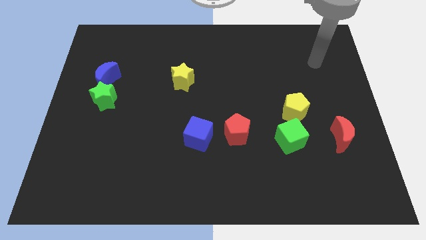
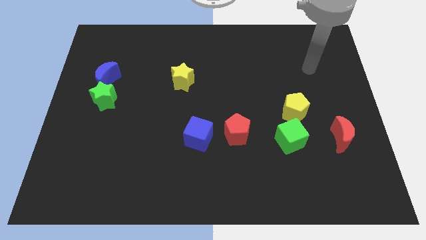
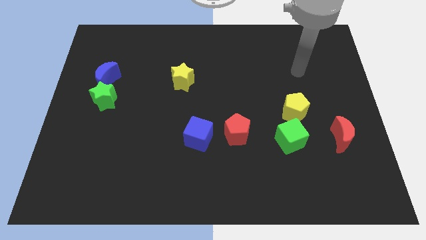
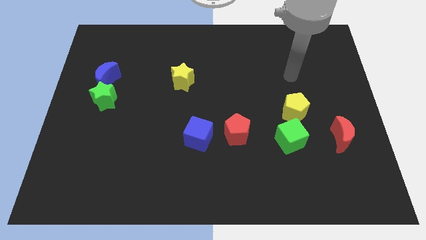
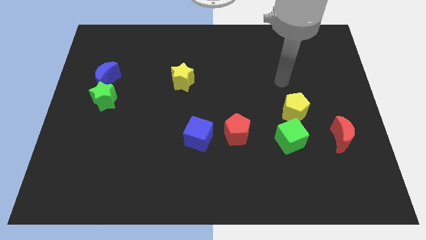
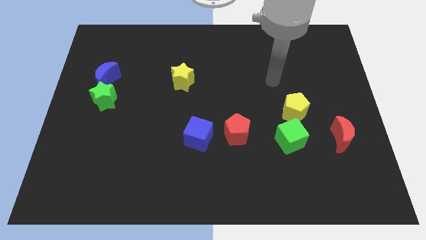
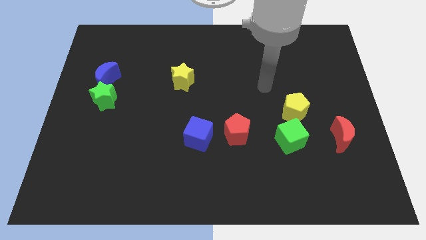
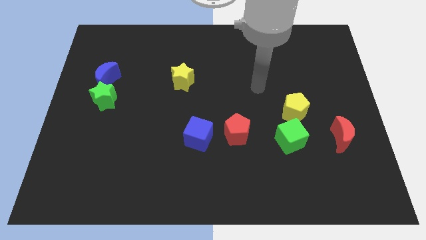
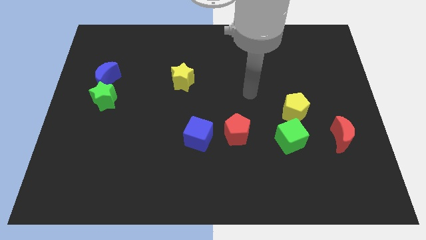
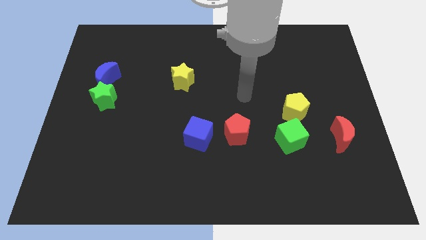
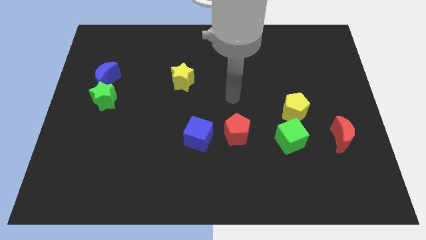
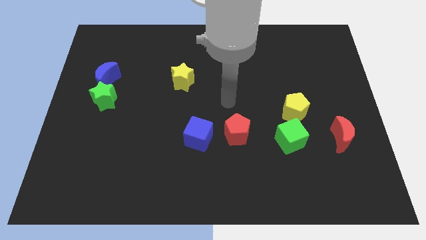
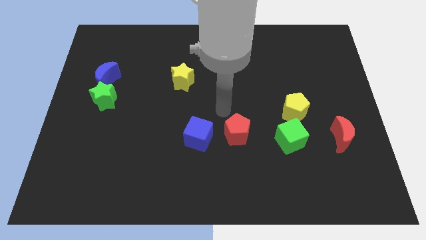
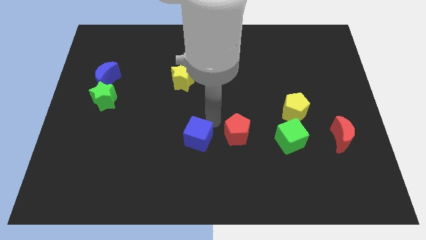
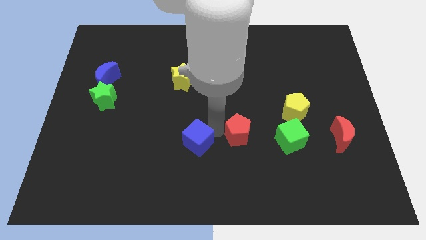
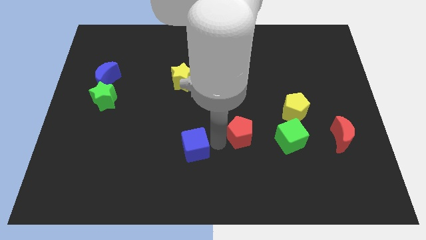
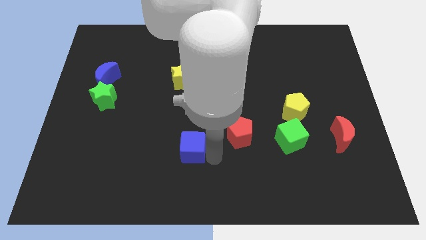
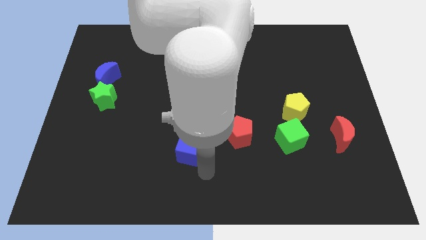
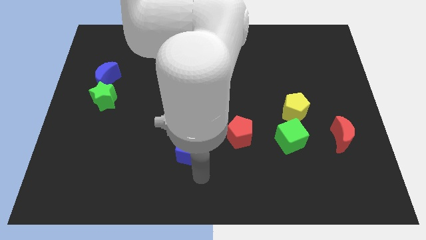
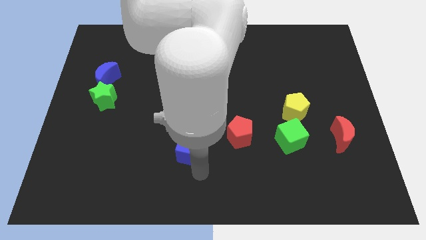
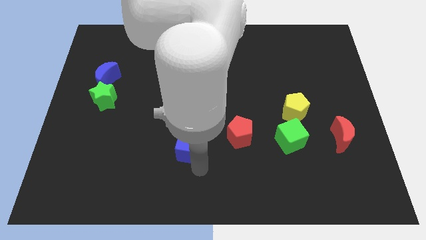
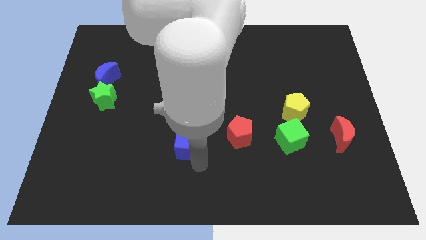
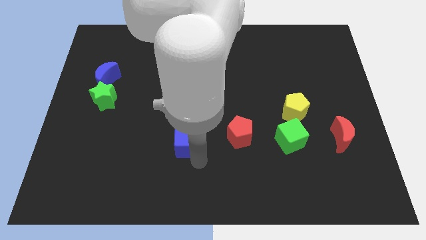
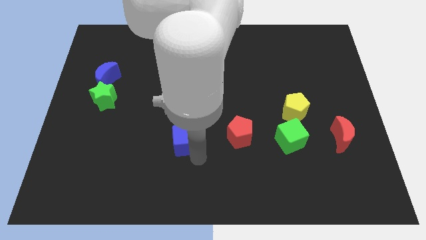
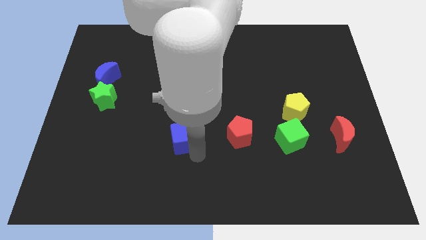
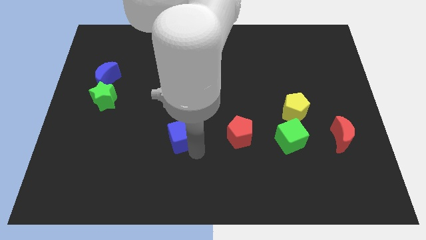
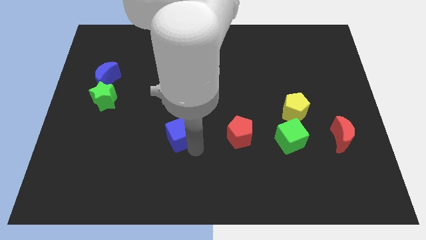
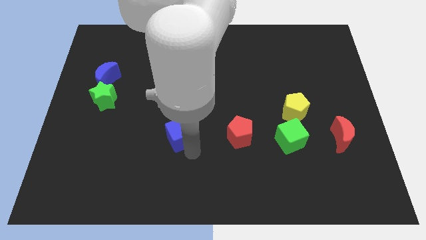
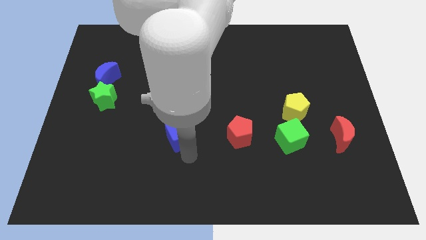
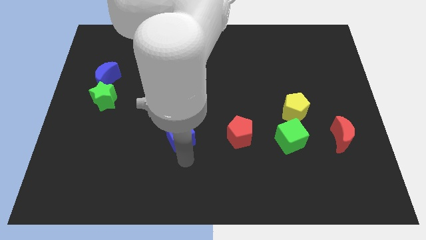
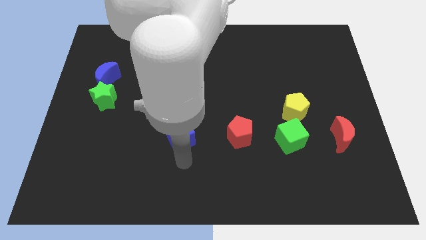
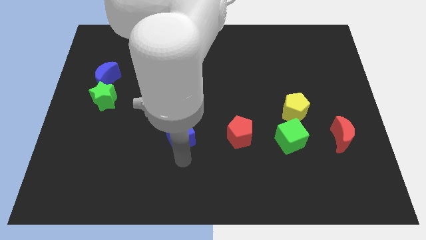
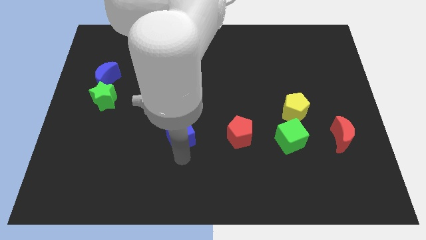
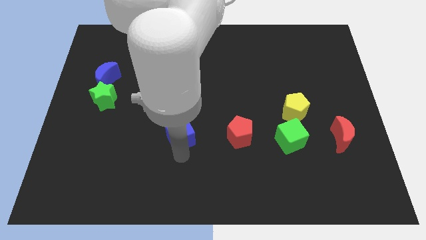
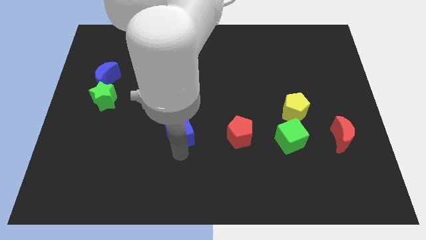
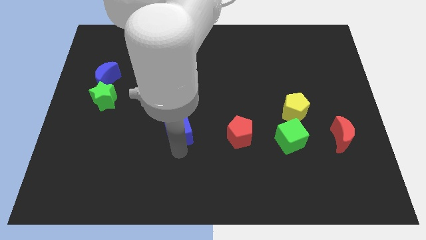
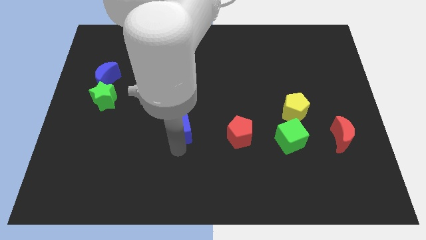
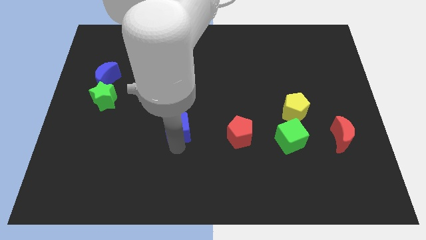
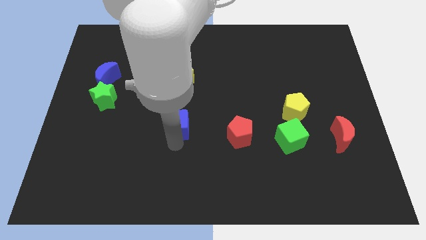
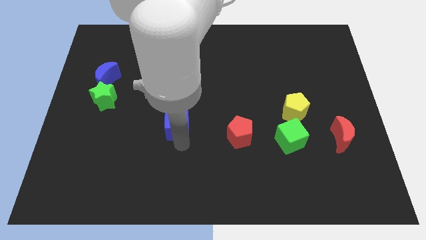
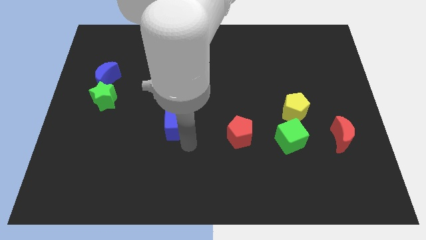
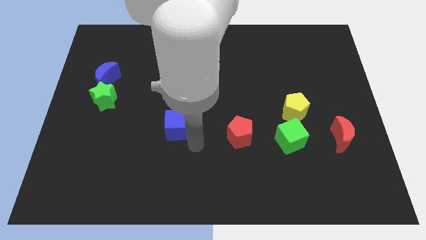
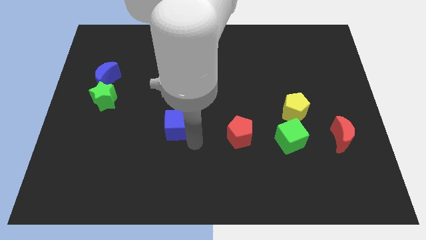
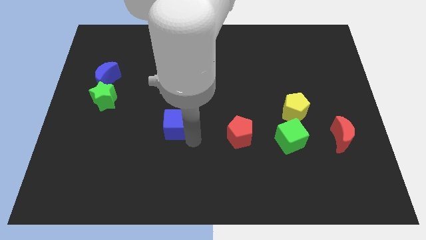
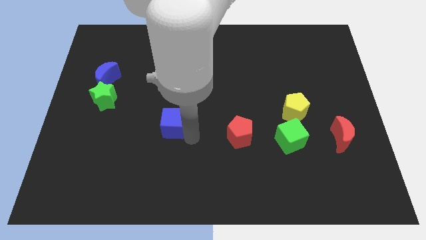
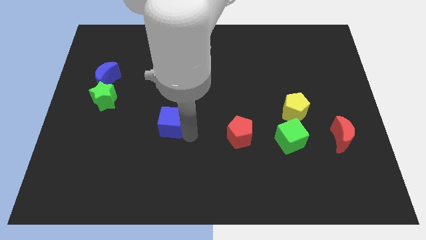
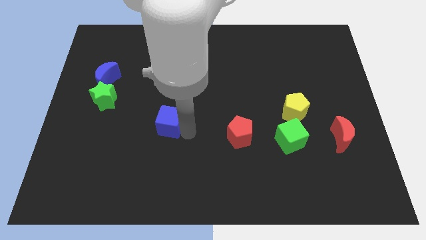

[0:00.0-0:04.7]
move the blue cube diagonally upwards and left somewhat

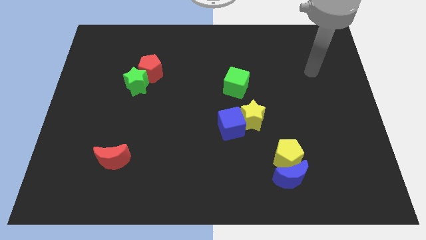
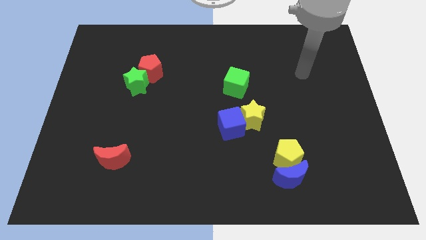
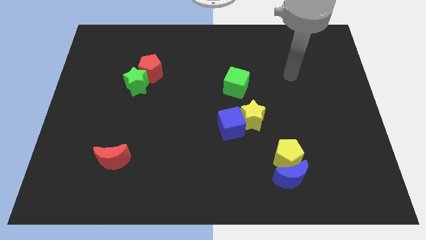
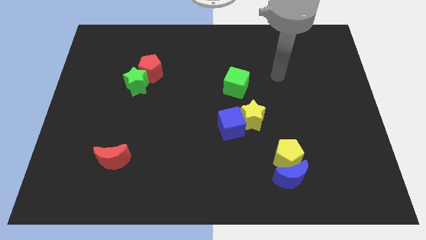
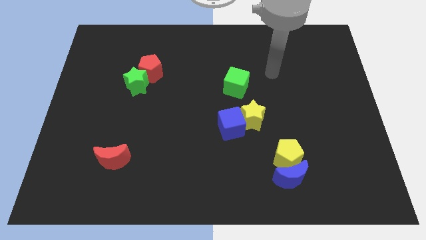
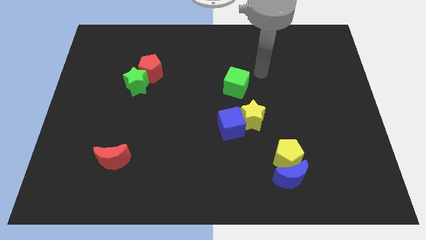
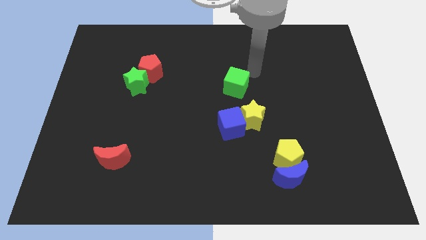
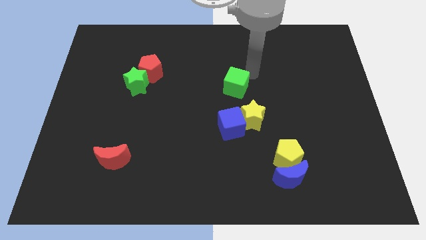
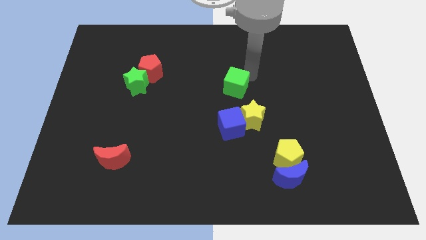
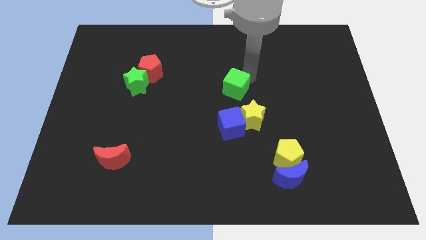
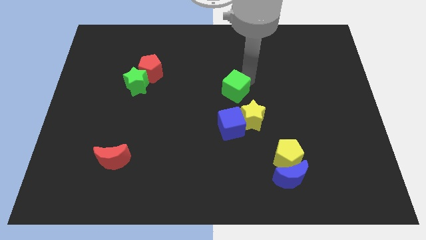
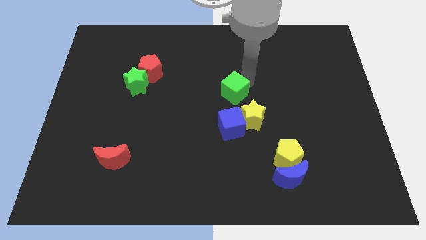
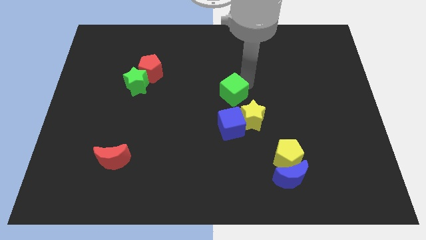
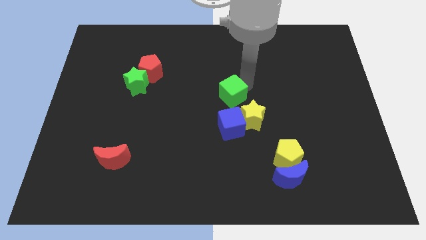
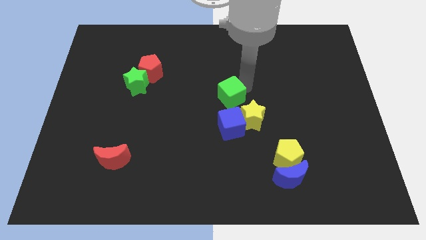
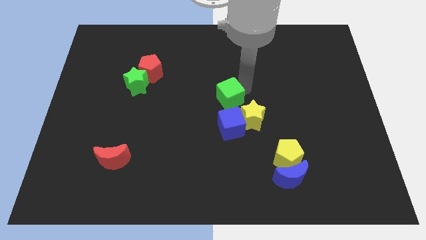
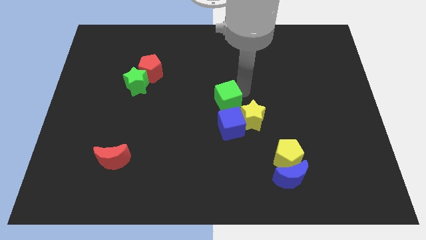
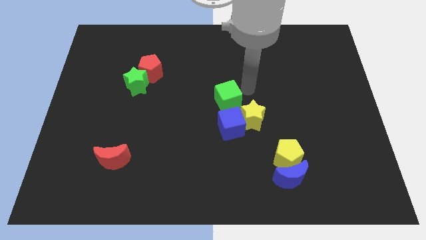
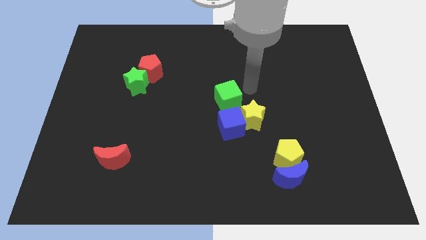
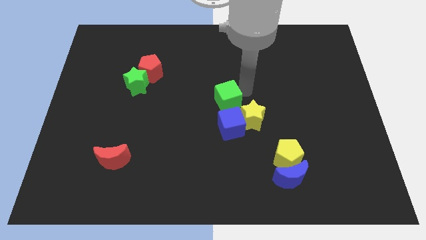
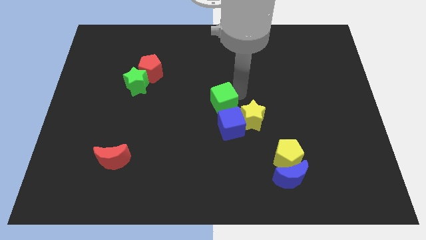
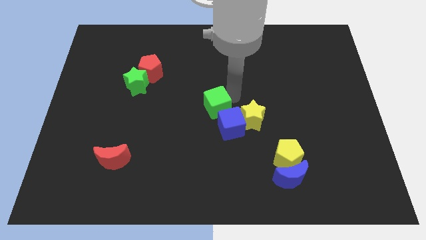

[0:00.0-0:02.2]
push the green cube a little bit diagonally down and left

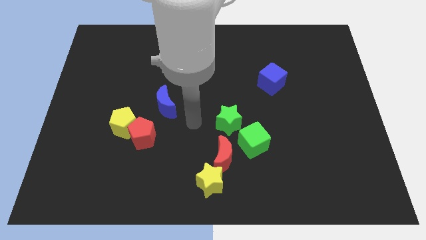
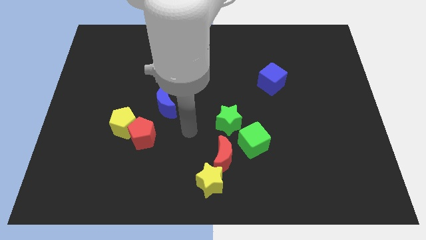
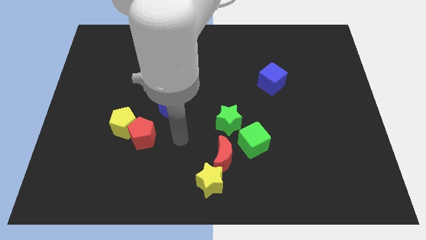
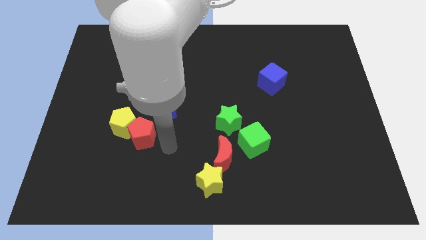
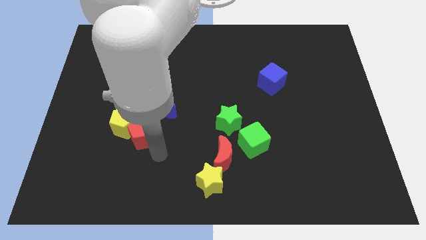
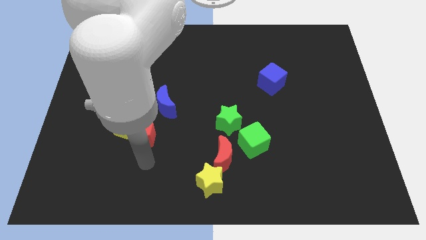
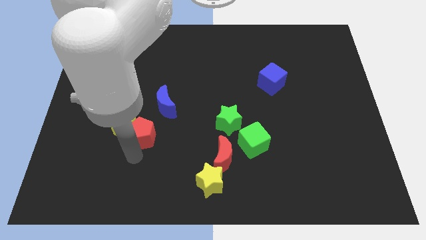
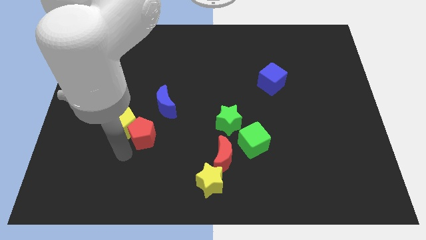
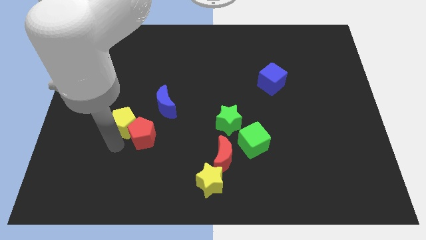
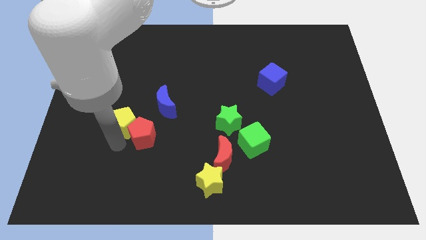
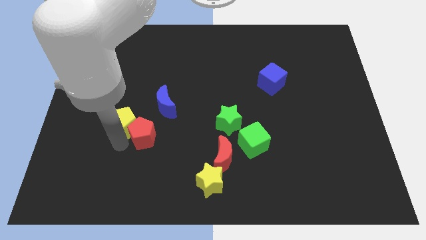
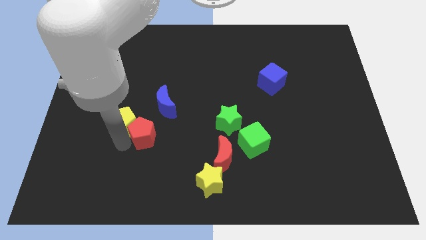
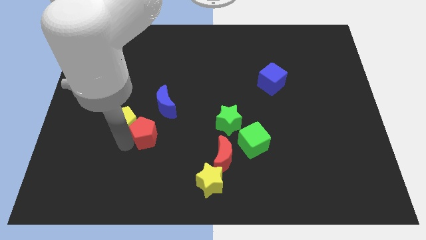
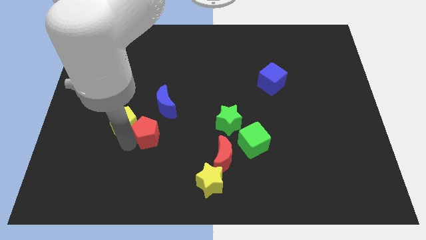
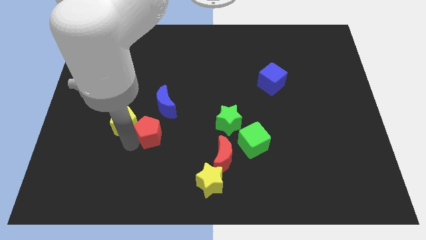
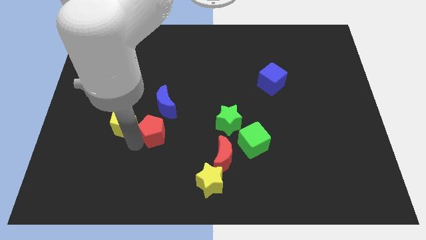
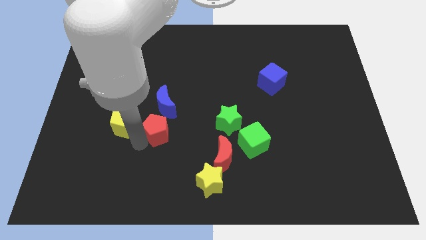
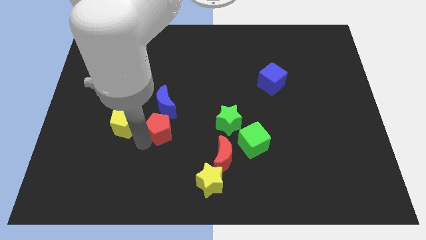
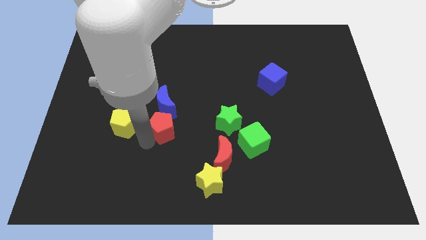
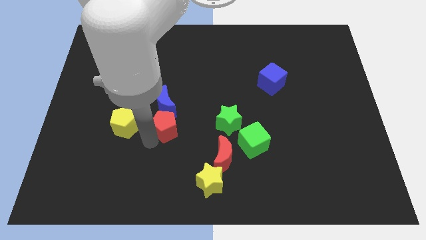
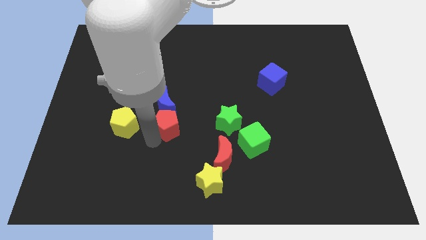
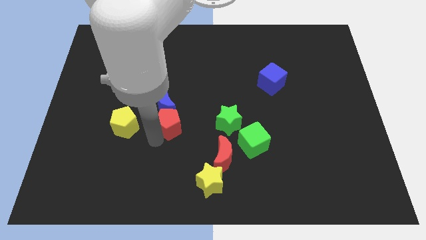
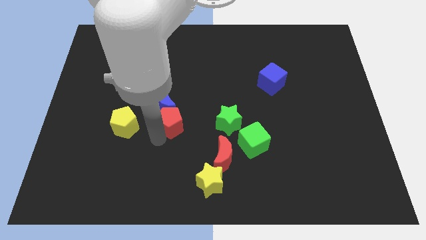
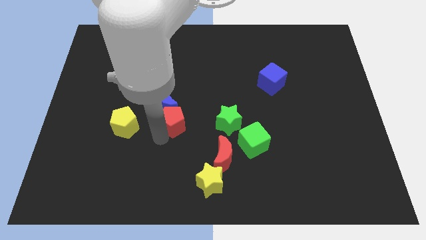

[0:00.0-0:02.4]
slightly slide the red pentagon upwards and to the right diagonally
